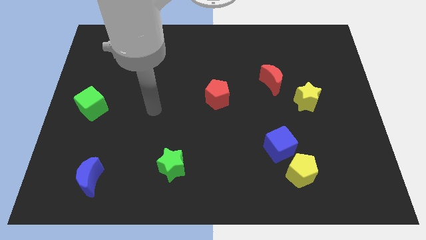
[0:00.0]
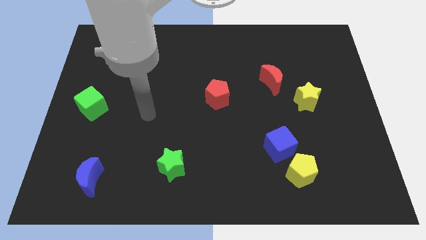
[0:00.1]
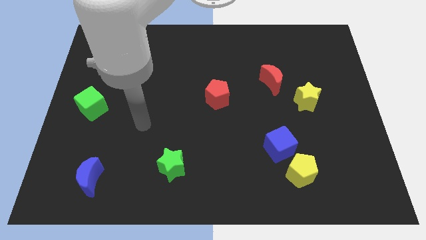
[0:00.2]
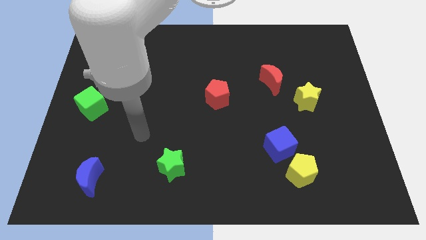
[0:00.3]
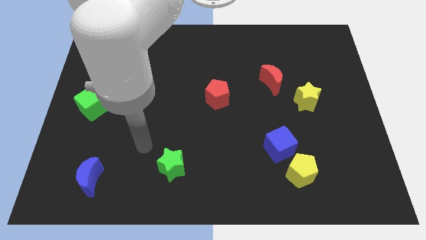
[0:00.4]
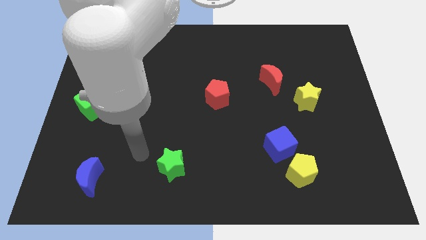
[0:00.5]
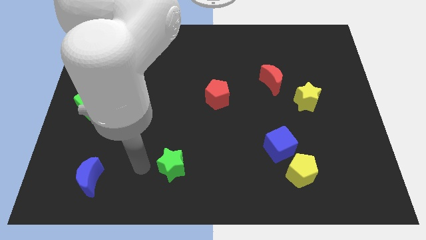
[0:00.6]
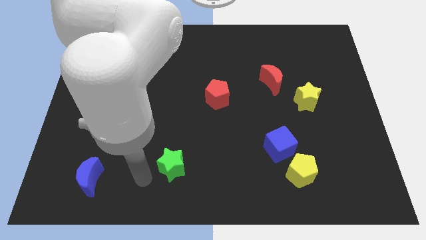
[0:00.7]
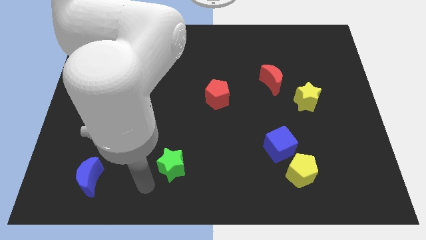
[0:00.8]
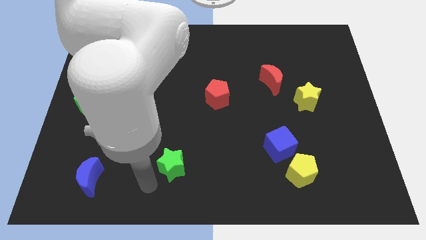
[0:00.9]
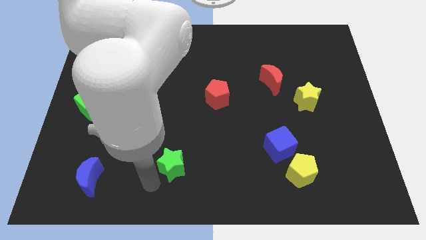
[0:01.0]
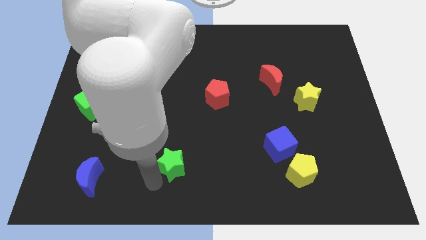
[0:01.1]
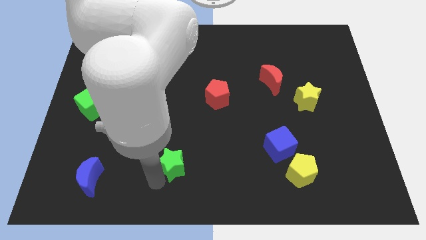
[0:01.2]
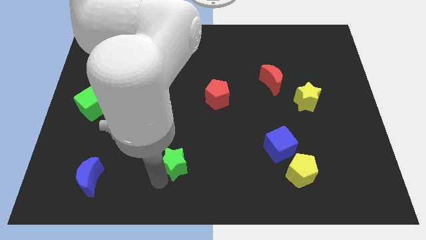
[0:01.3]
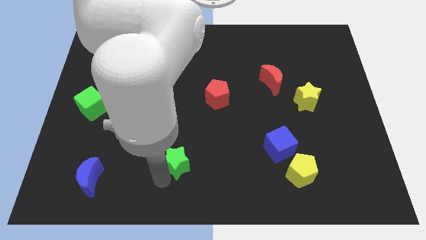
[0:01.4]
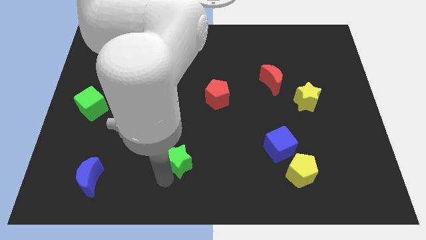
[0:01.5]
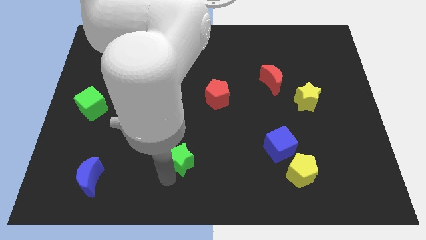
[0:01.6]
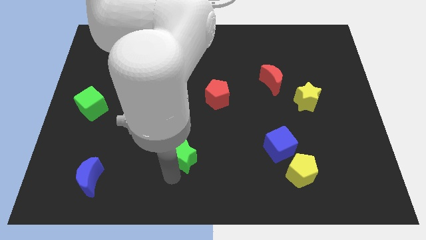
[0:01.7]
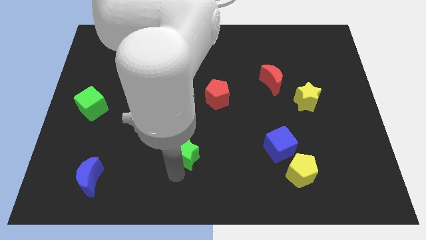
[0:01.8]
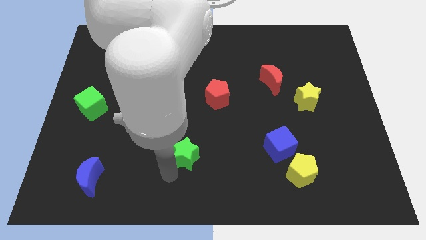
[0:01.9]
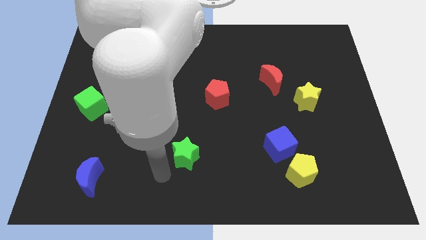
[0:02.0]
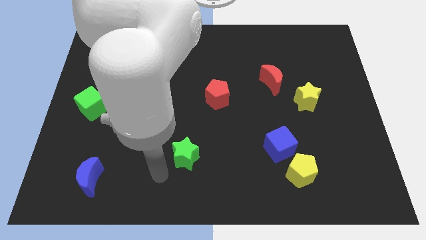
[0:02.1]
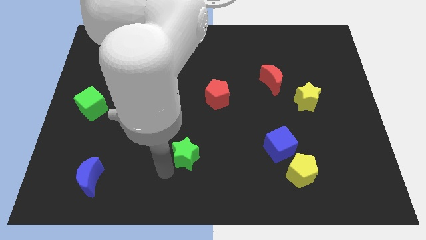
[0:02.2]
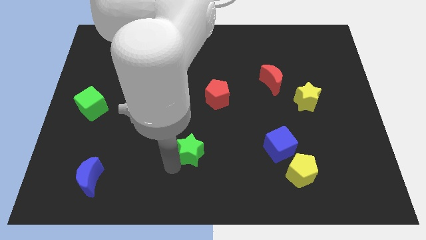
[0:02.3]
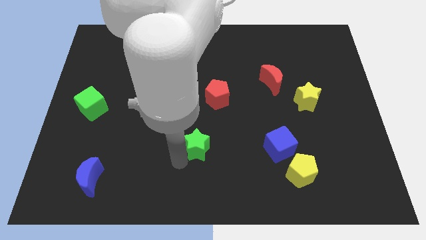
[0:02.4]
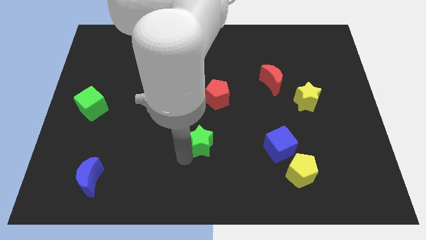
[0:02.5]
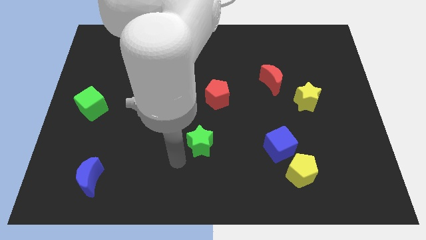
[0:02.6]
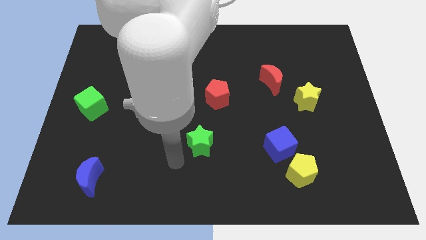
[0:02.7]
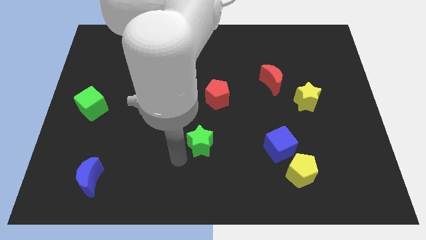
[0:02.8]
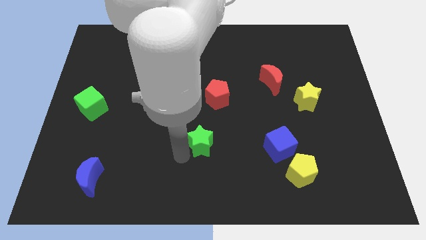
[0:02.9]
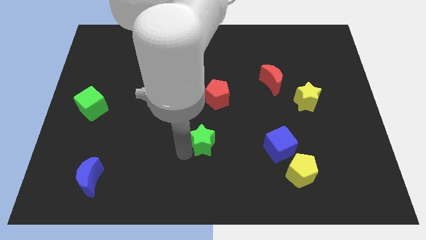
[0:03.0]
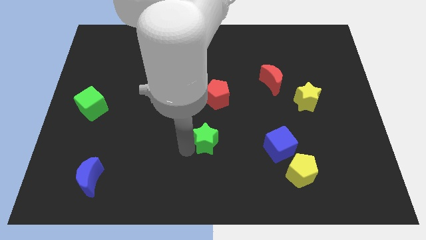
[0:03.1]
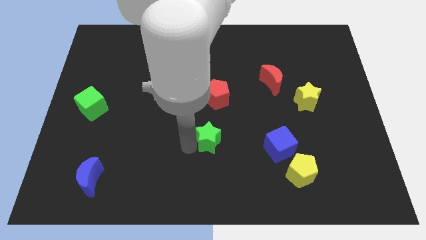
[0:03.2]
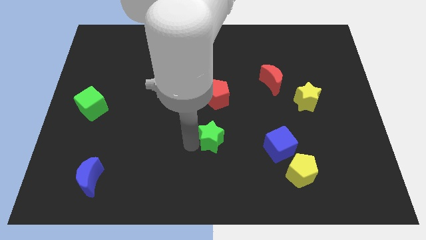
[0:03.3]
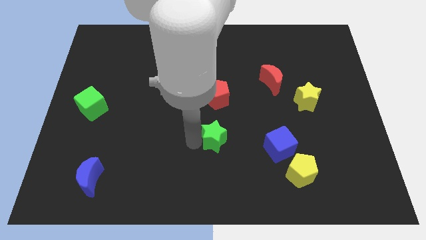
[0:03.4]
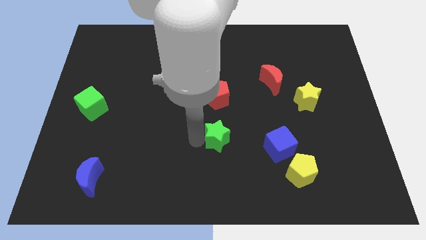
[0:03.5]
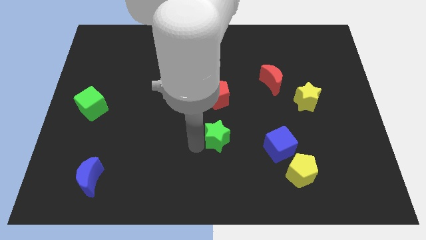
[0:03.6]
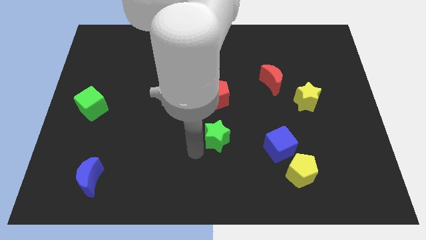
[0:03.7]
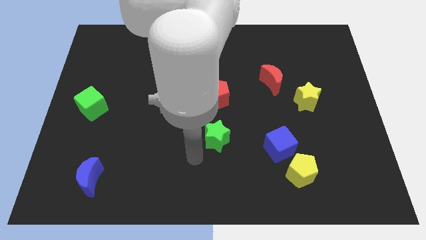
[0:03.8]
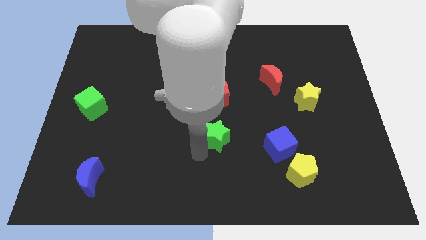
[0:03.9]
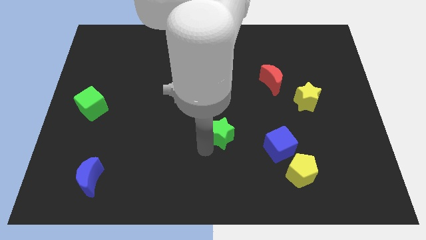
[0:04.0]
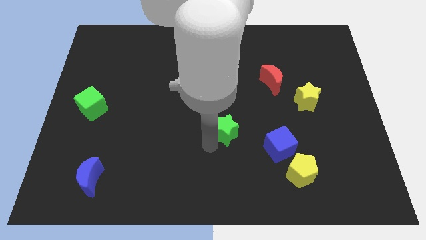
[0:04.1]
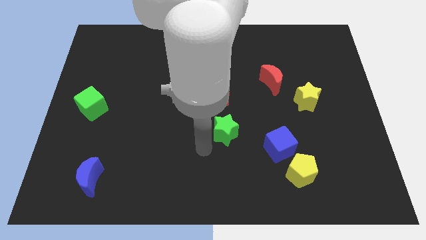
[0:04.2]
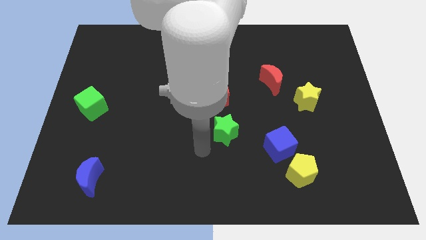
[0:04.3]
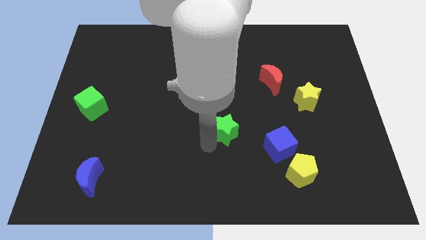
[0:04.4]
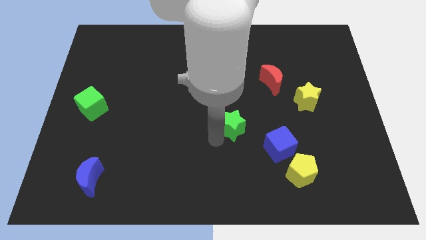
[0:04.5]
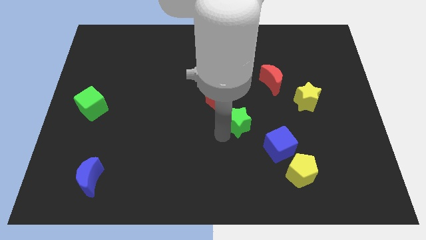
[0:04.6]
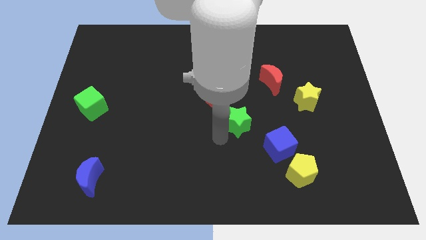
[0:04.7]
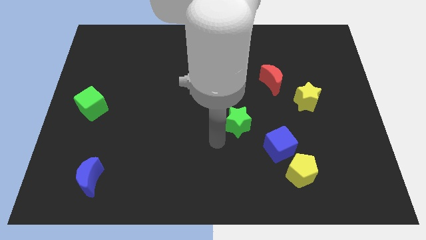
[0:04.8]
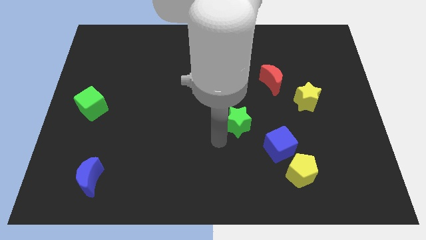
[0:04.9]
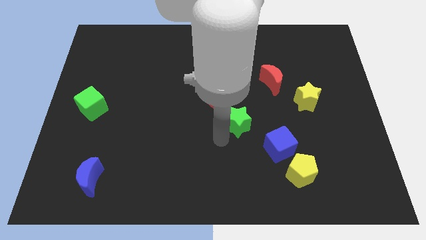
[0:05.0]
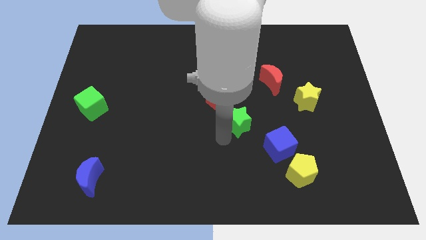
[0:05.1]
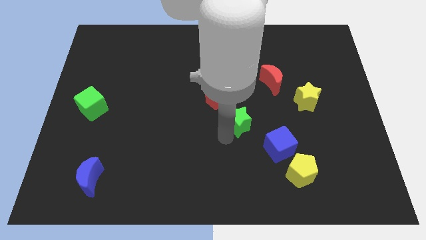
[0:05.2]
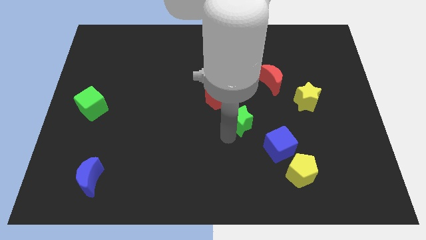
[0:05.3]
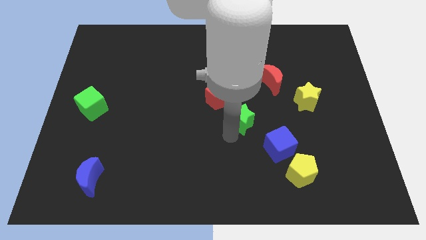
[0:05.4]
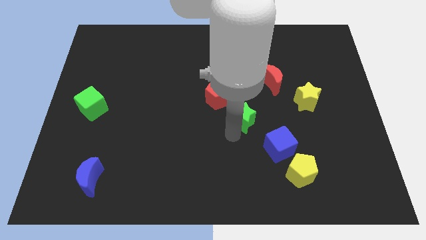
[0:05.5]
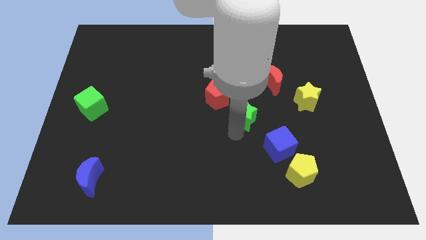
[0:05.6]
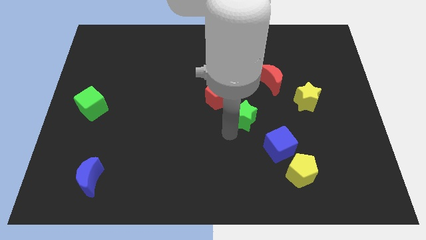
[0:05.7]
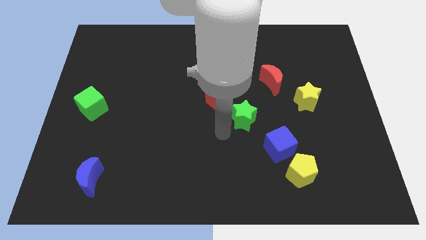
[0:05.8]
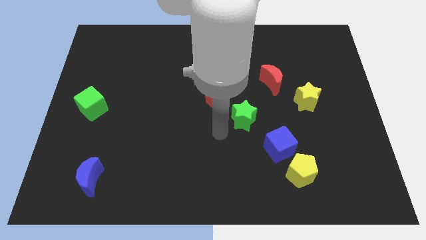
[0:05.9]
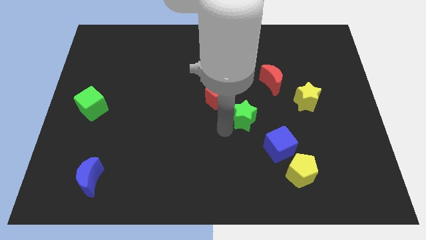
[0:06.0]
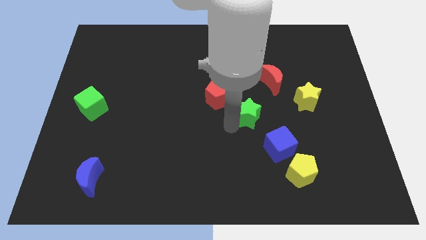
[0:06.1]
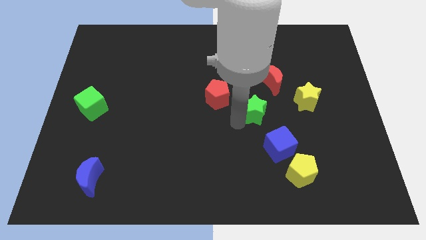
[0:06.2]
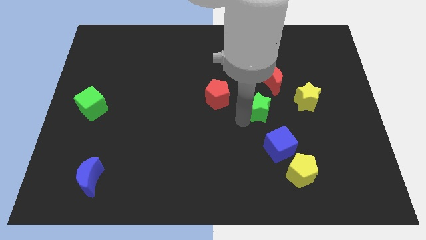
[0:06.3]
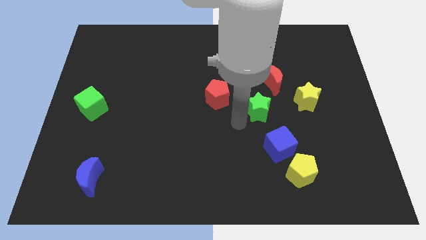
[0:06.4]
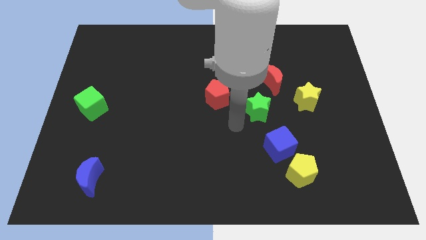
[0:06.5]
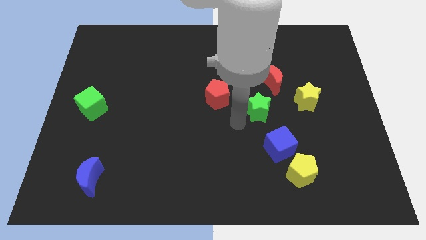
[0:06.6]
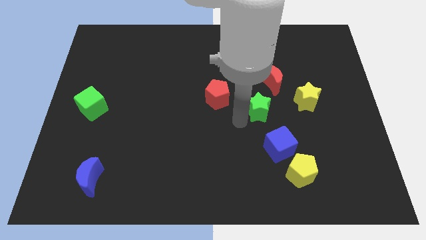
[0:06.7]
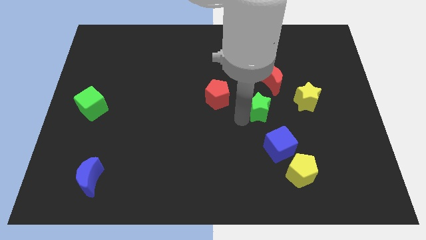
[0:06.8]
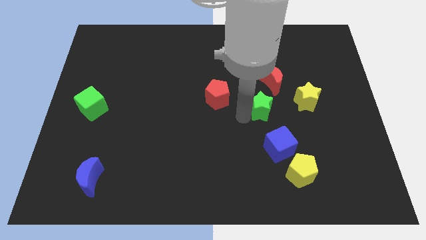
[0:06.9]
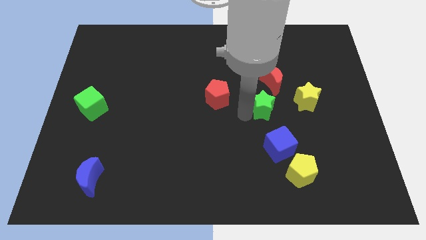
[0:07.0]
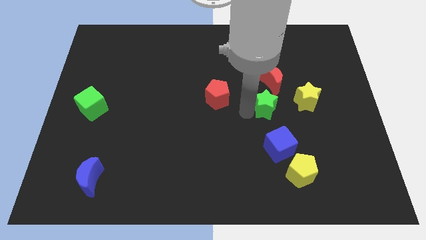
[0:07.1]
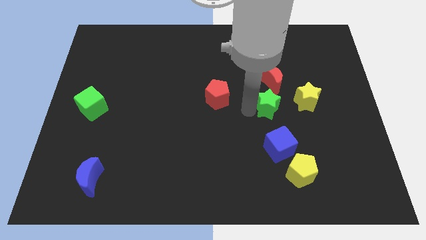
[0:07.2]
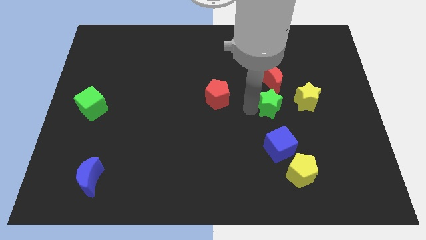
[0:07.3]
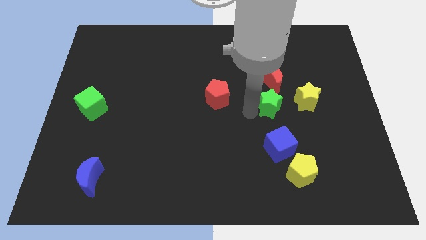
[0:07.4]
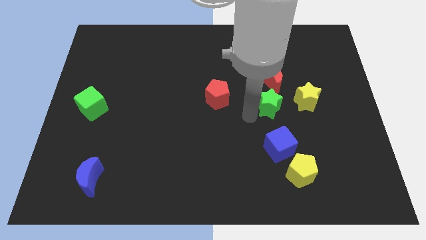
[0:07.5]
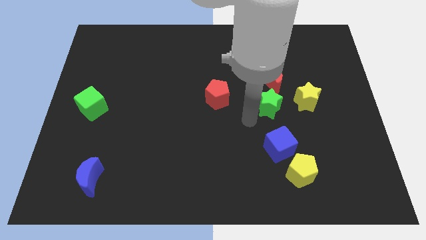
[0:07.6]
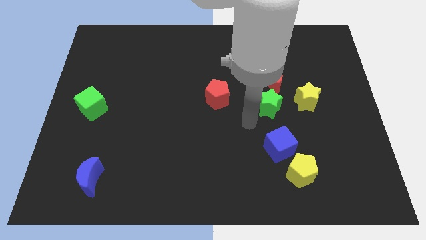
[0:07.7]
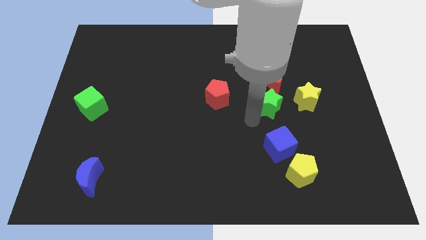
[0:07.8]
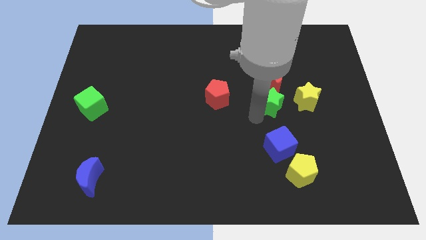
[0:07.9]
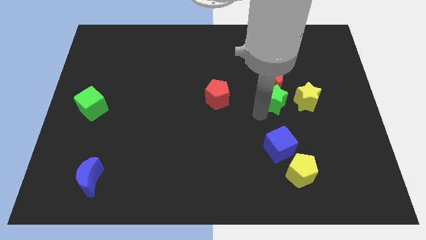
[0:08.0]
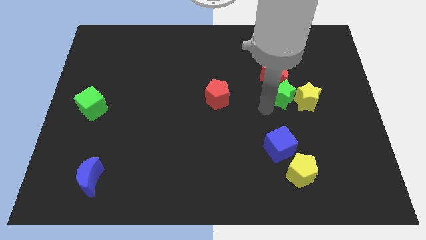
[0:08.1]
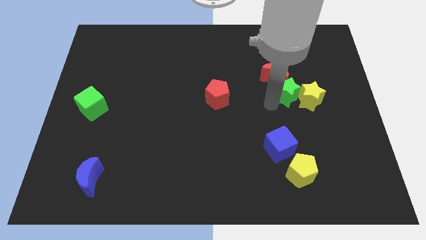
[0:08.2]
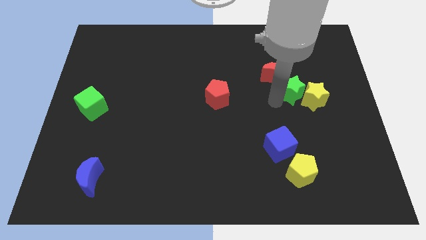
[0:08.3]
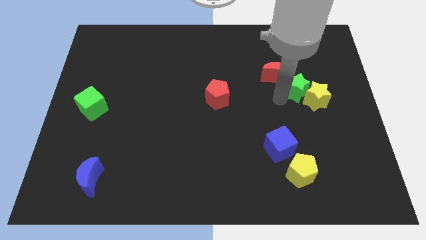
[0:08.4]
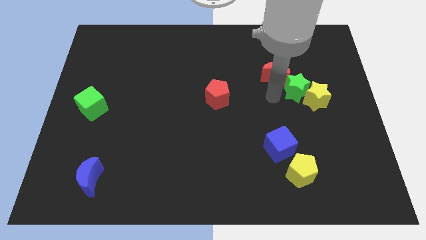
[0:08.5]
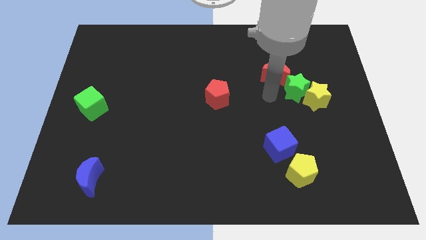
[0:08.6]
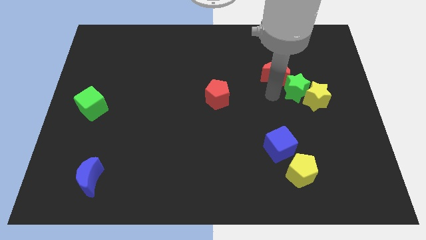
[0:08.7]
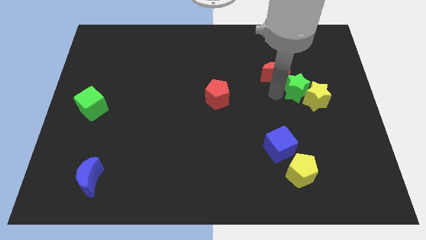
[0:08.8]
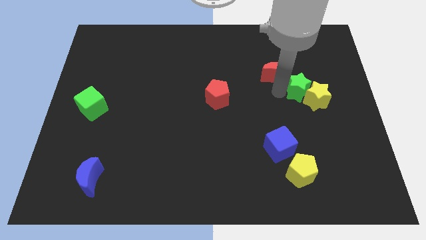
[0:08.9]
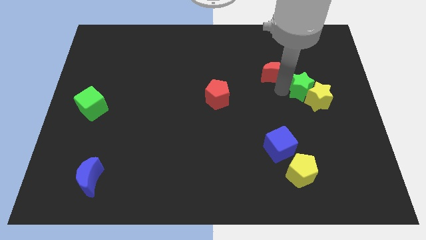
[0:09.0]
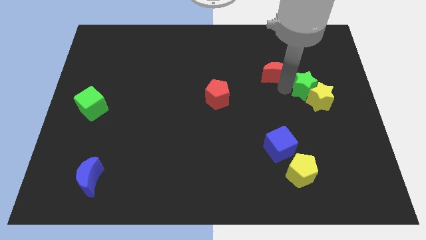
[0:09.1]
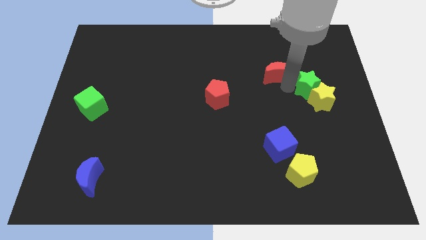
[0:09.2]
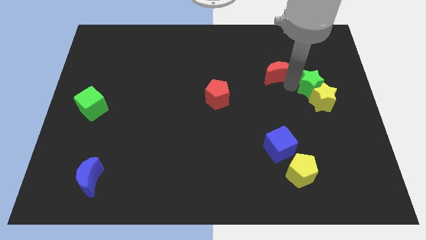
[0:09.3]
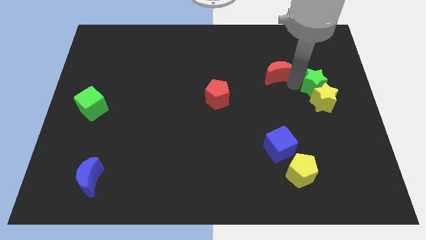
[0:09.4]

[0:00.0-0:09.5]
move the green star diagonally up and to the right of the yellow star
